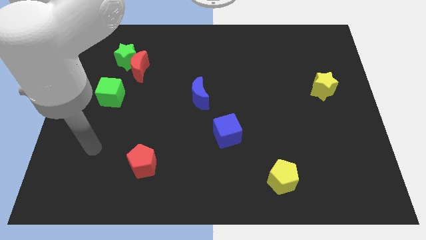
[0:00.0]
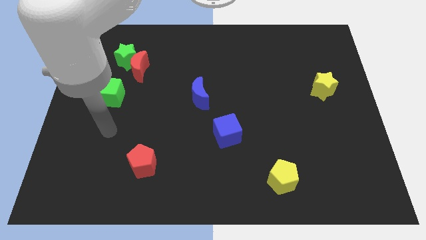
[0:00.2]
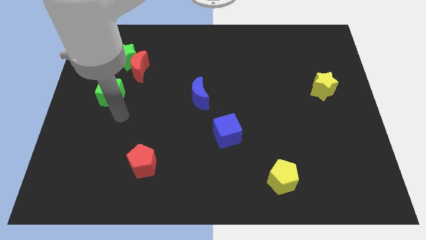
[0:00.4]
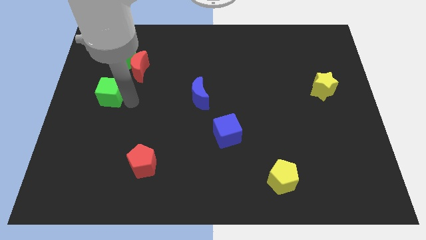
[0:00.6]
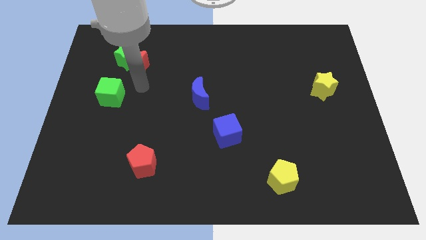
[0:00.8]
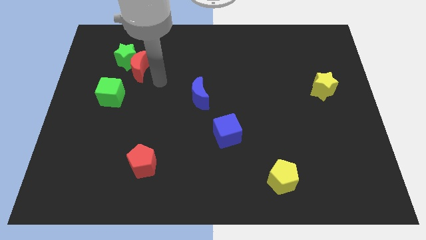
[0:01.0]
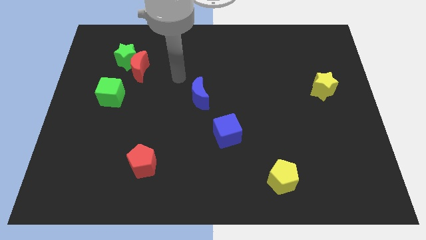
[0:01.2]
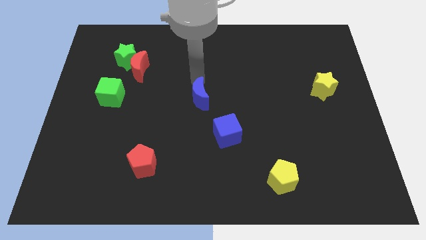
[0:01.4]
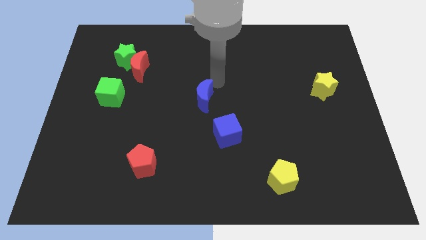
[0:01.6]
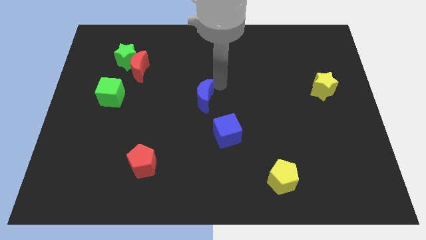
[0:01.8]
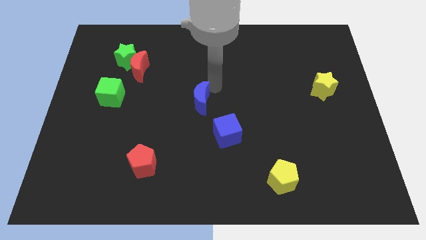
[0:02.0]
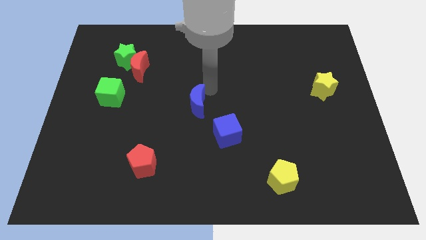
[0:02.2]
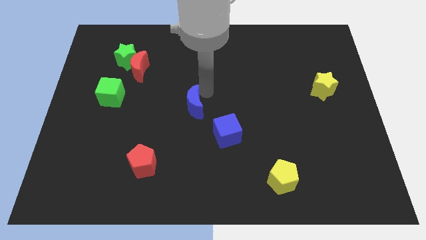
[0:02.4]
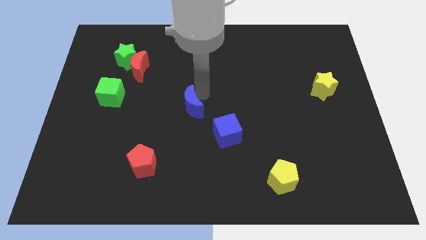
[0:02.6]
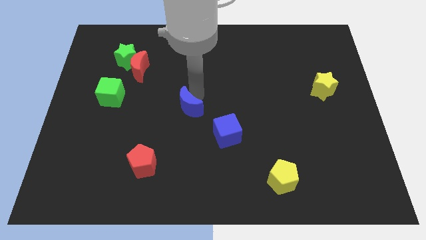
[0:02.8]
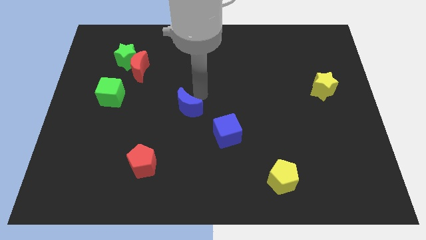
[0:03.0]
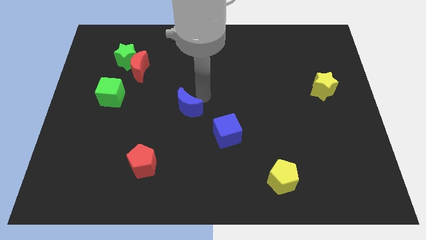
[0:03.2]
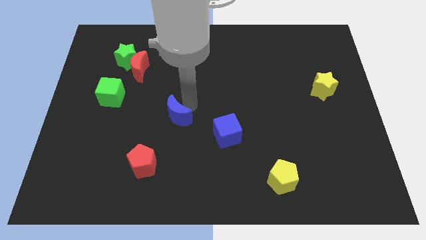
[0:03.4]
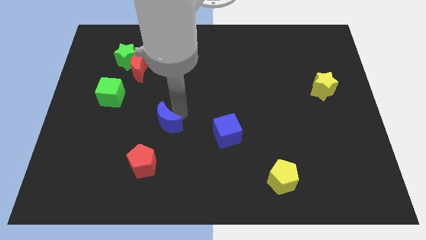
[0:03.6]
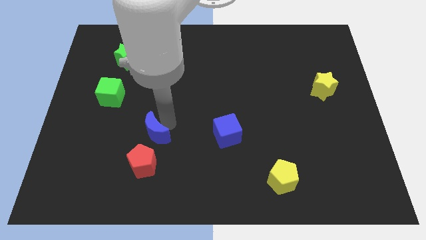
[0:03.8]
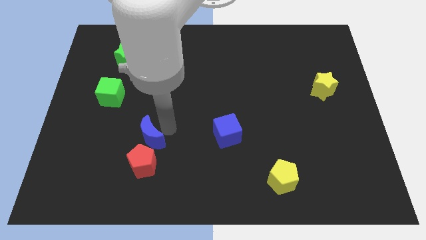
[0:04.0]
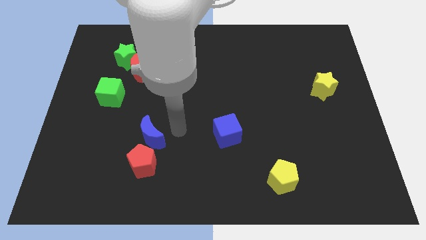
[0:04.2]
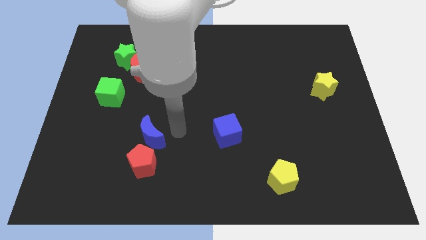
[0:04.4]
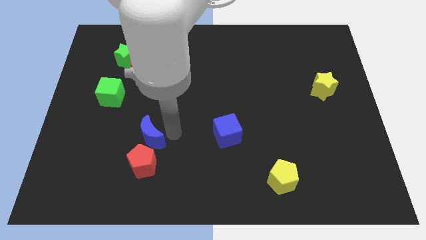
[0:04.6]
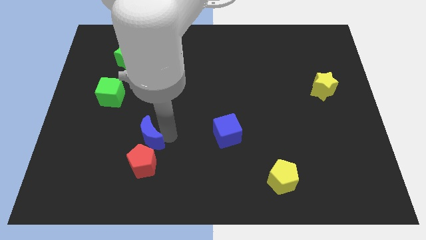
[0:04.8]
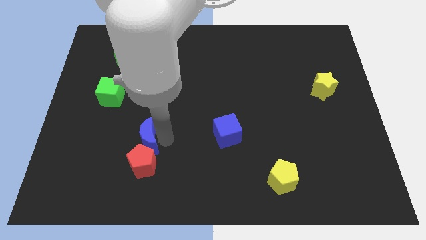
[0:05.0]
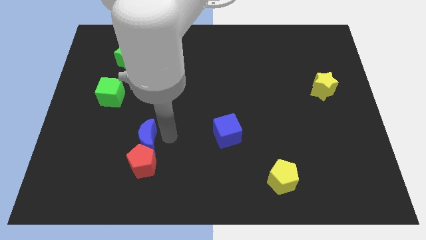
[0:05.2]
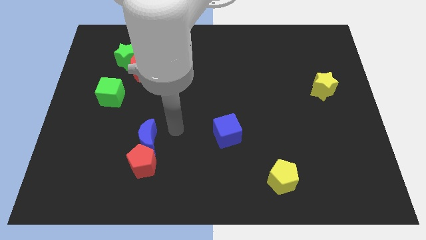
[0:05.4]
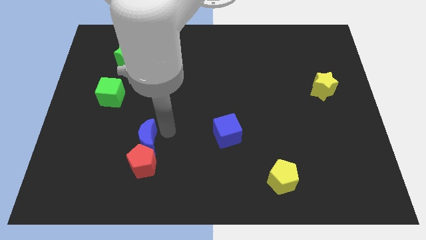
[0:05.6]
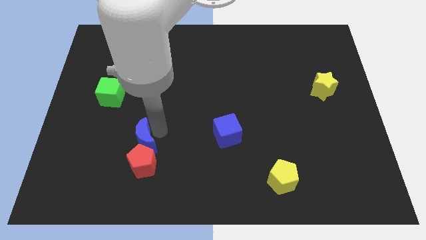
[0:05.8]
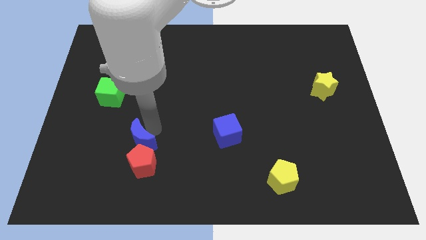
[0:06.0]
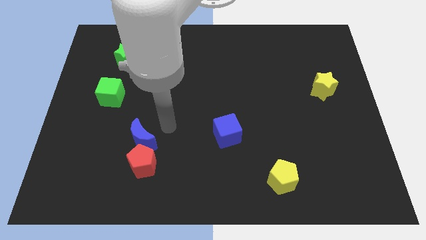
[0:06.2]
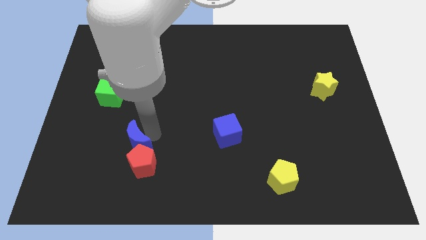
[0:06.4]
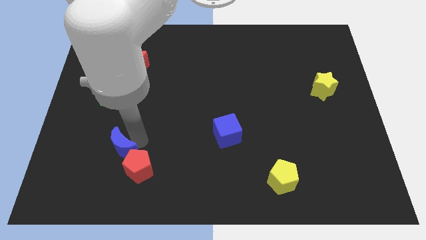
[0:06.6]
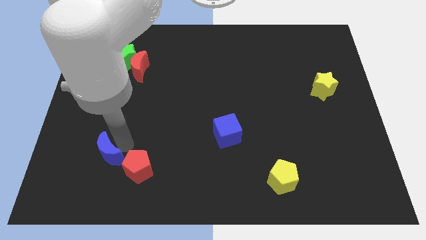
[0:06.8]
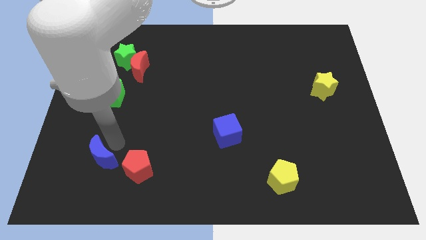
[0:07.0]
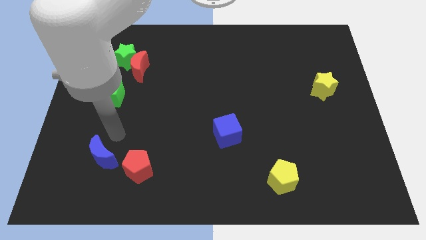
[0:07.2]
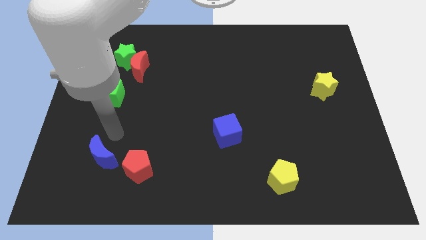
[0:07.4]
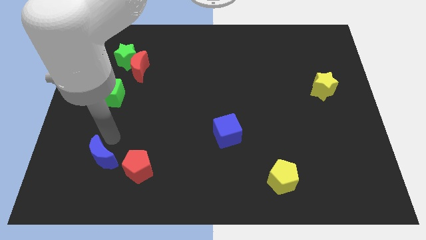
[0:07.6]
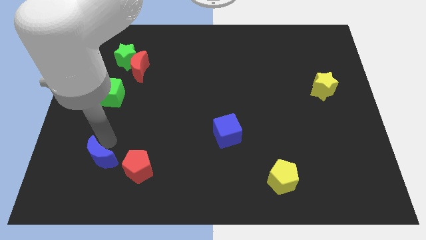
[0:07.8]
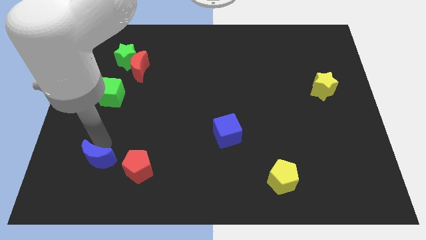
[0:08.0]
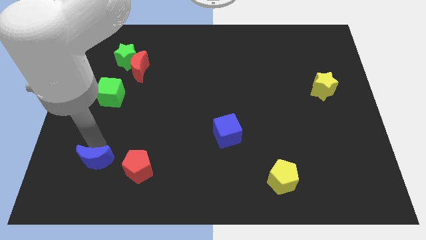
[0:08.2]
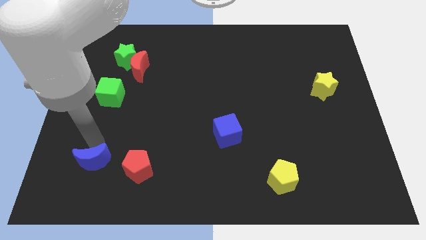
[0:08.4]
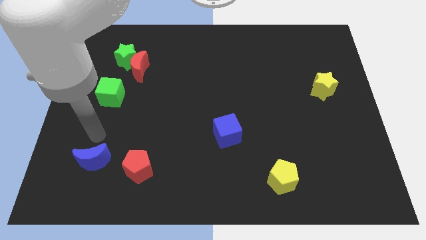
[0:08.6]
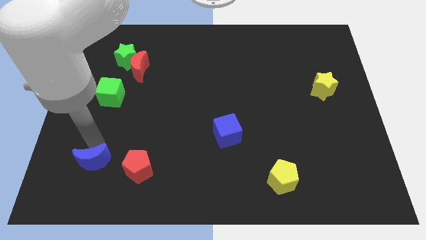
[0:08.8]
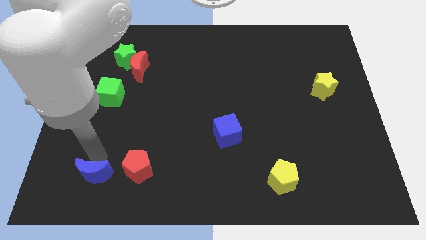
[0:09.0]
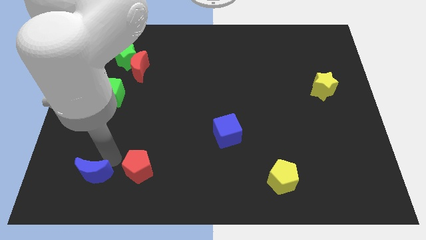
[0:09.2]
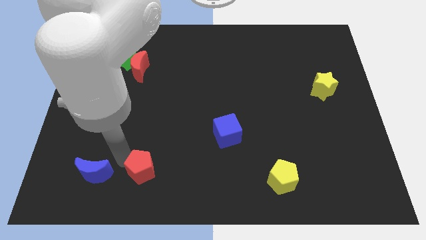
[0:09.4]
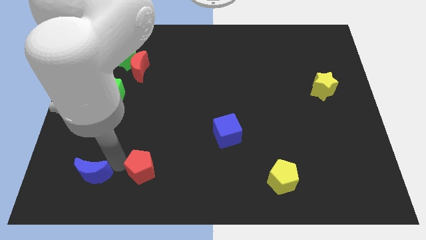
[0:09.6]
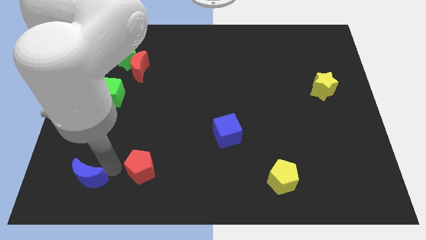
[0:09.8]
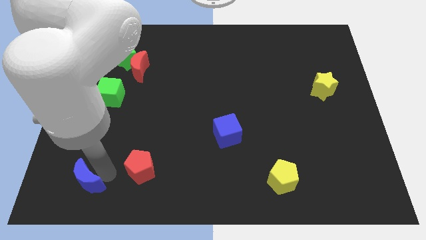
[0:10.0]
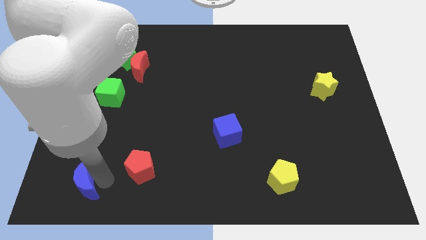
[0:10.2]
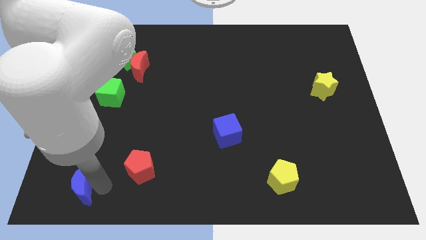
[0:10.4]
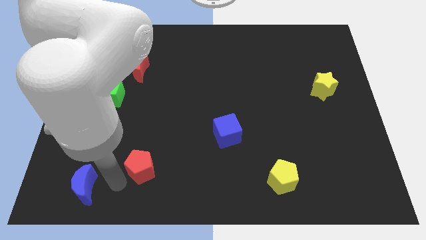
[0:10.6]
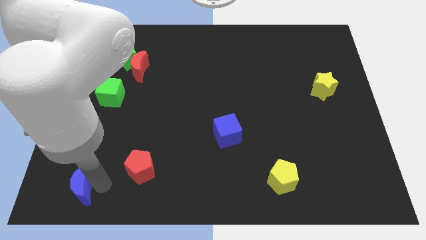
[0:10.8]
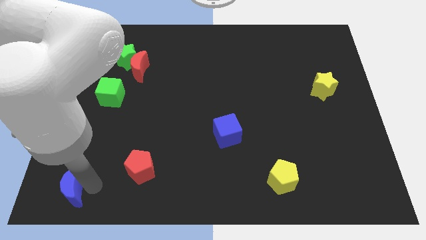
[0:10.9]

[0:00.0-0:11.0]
push the blue moon to the bottom left

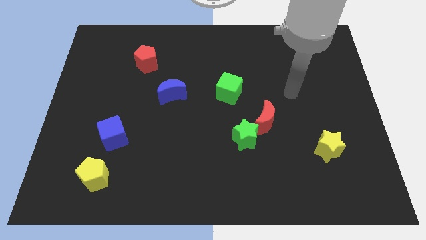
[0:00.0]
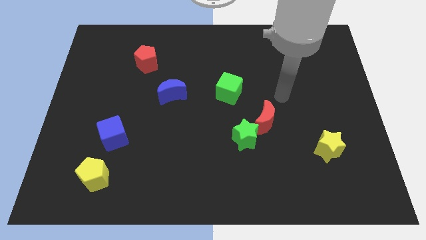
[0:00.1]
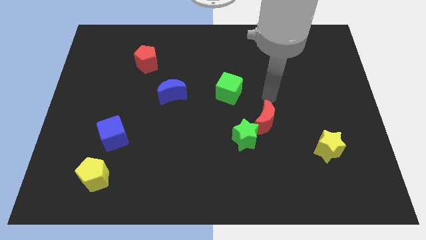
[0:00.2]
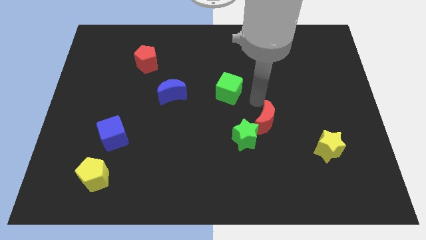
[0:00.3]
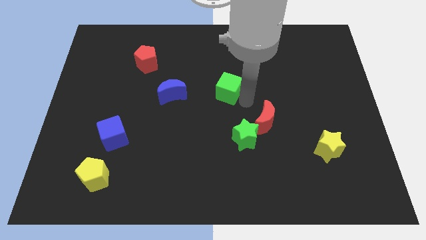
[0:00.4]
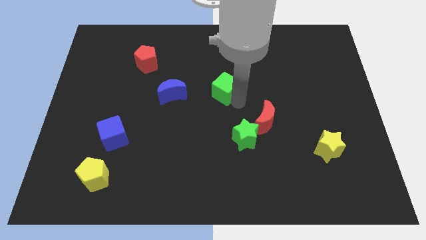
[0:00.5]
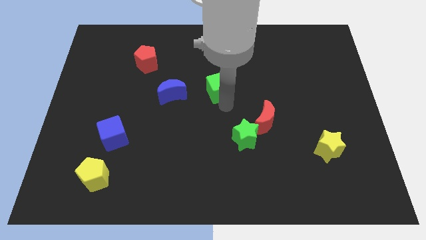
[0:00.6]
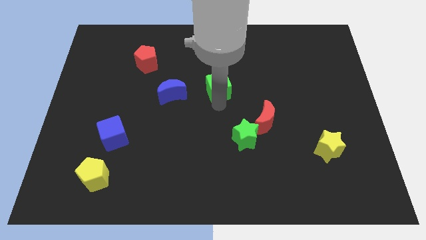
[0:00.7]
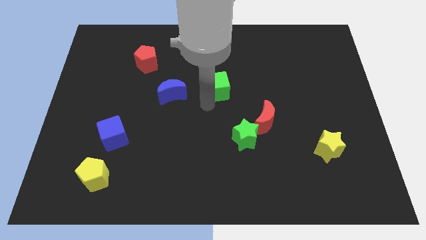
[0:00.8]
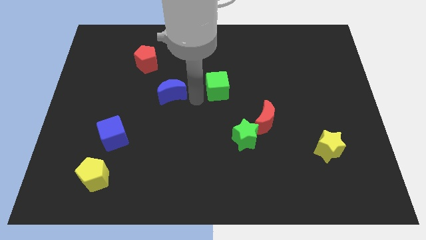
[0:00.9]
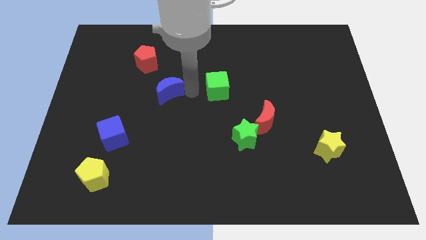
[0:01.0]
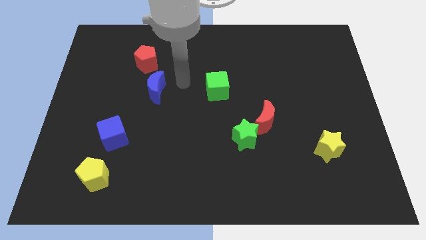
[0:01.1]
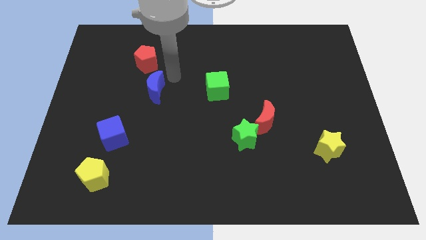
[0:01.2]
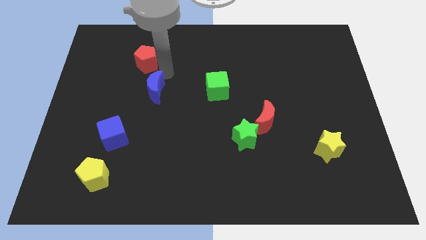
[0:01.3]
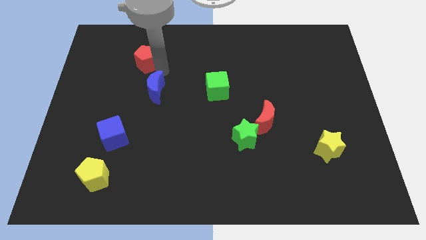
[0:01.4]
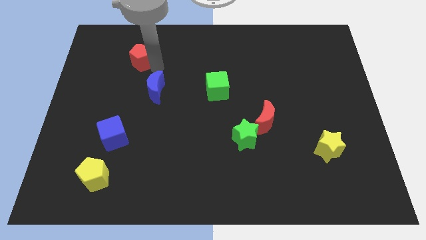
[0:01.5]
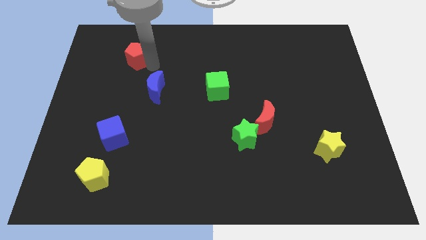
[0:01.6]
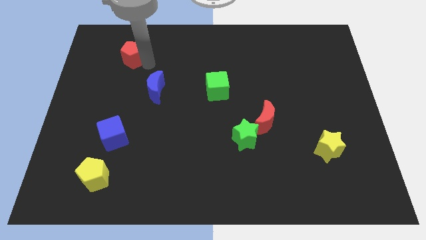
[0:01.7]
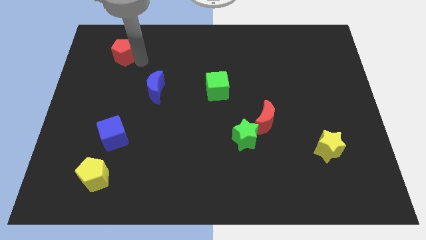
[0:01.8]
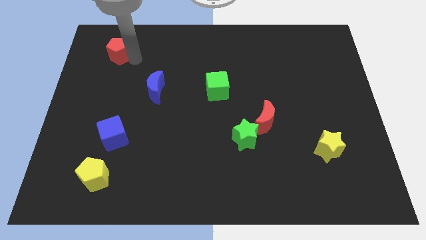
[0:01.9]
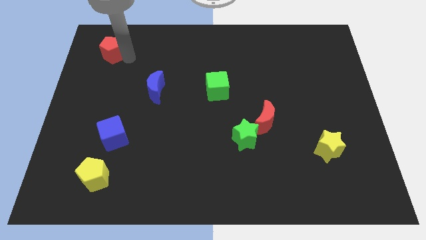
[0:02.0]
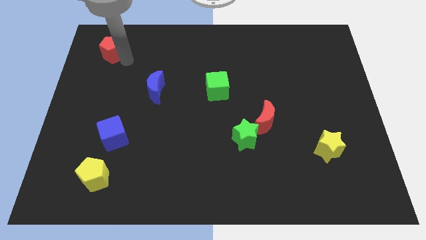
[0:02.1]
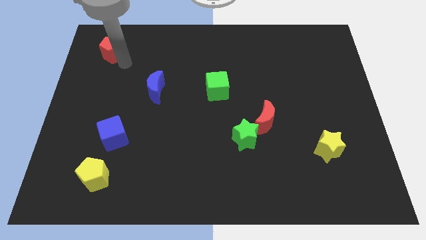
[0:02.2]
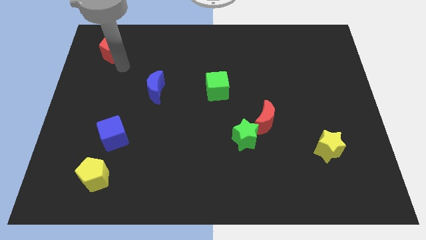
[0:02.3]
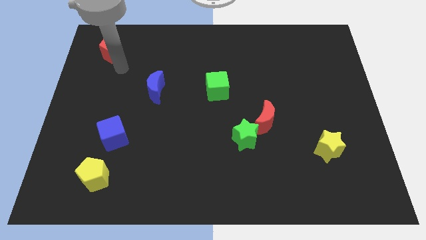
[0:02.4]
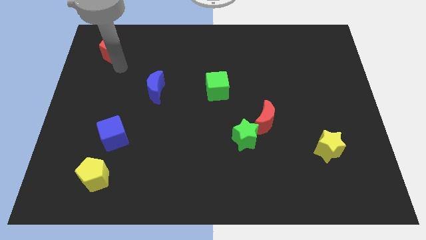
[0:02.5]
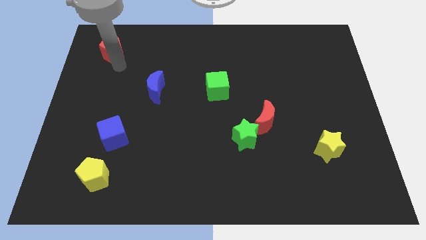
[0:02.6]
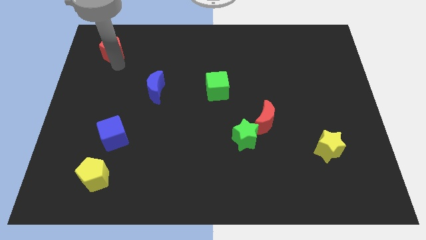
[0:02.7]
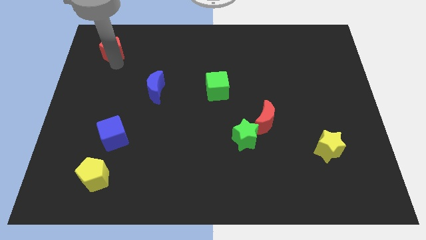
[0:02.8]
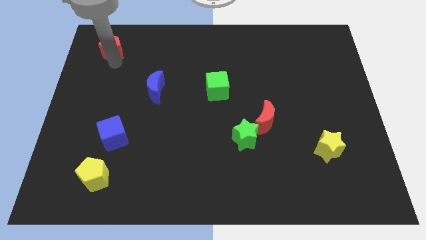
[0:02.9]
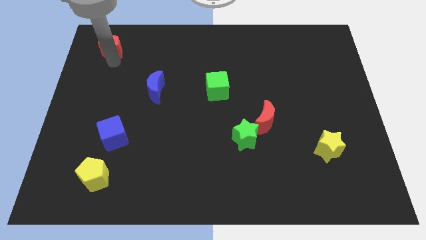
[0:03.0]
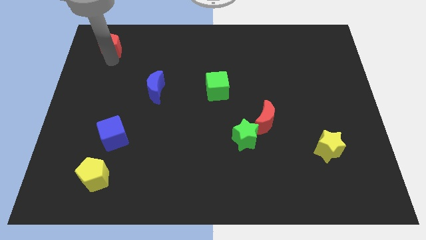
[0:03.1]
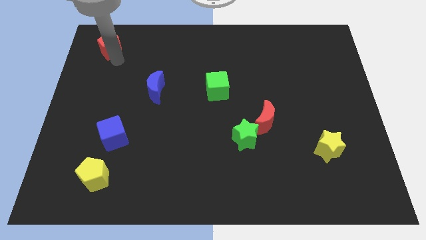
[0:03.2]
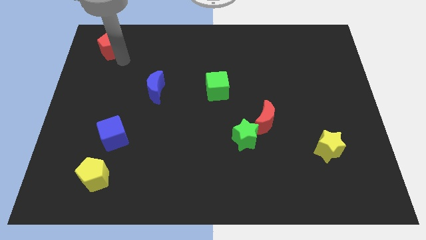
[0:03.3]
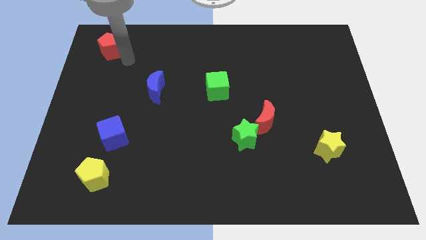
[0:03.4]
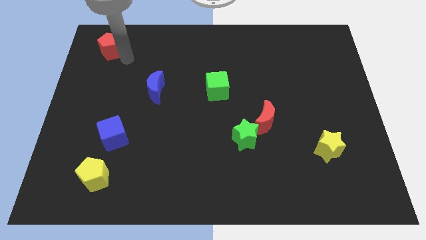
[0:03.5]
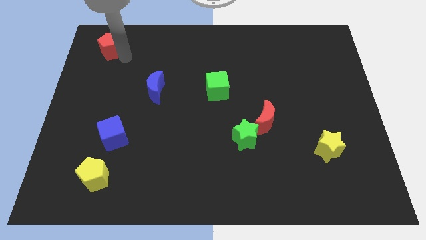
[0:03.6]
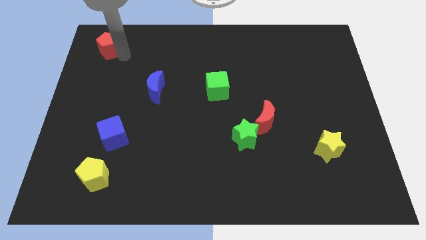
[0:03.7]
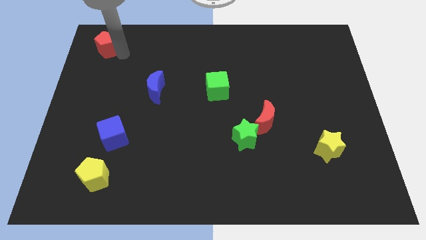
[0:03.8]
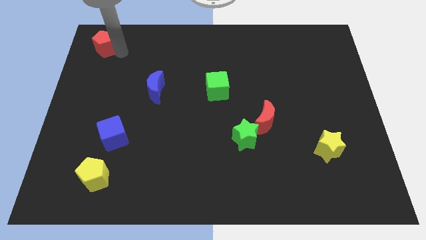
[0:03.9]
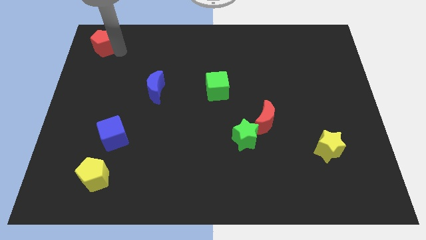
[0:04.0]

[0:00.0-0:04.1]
move the red pentagon to the top left corner
